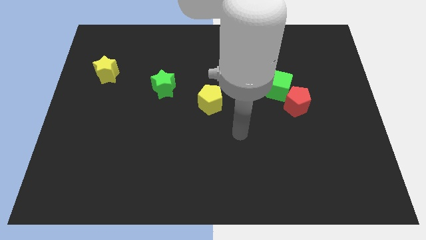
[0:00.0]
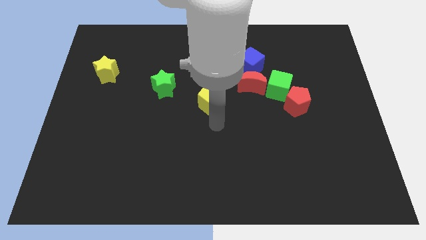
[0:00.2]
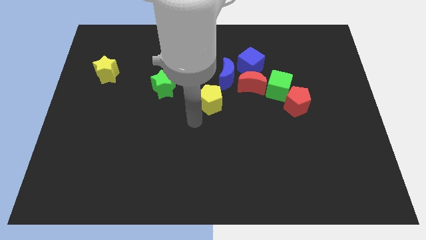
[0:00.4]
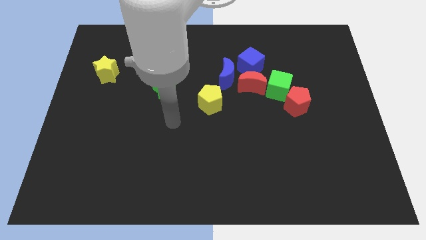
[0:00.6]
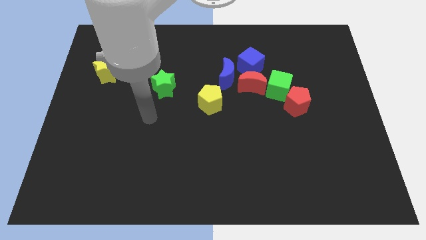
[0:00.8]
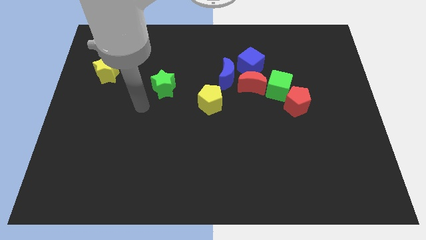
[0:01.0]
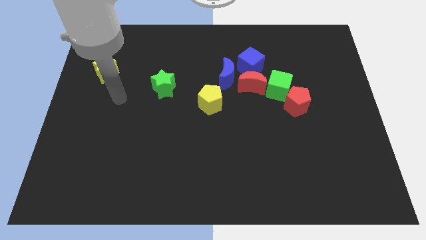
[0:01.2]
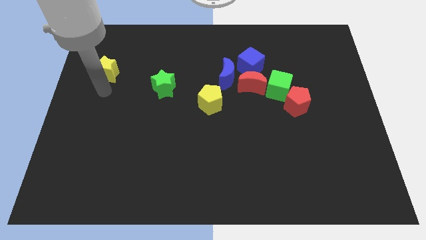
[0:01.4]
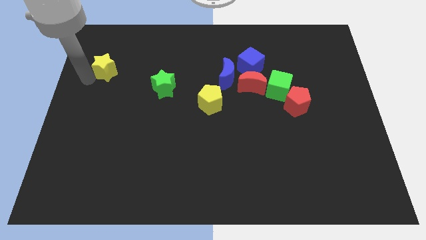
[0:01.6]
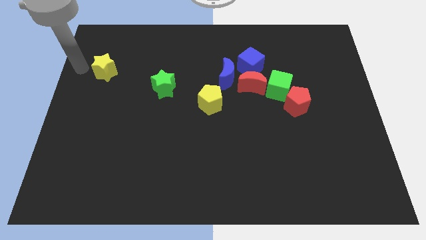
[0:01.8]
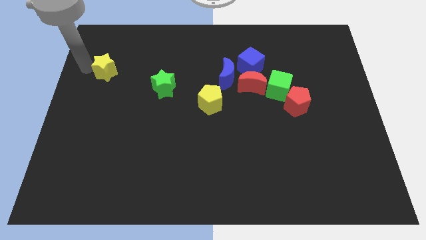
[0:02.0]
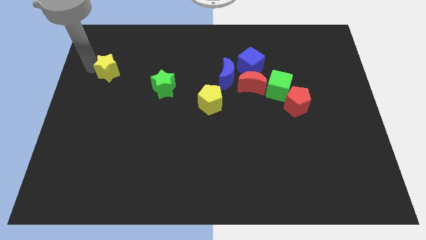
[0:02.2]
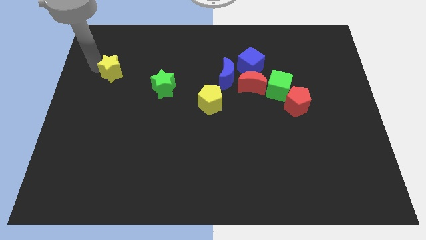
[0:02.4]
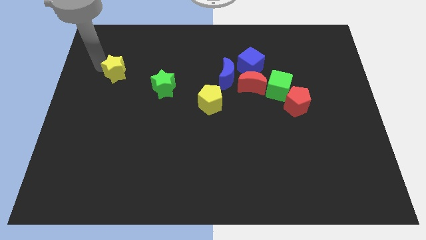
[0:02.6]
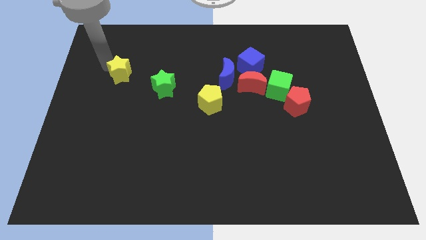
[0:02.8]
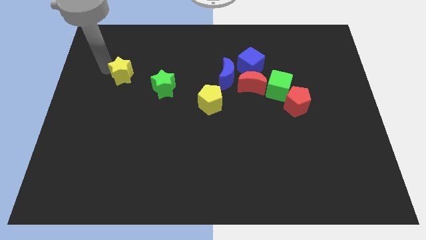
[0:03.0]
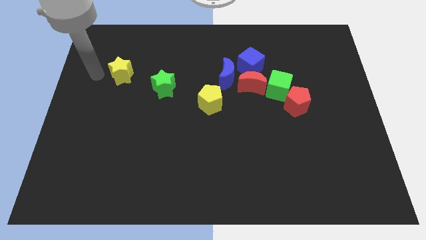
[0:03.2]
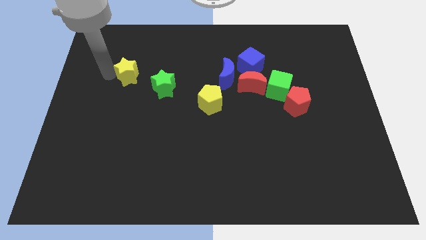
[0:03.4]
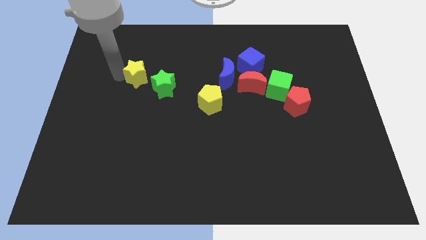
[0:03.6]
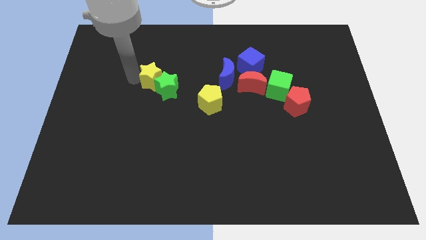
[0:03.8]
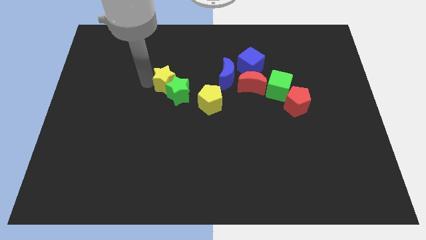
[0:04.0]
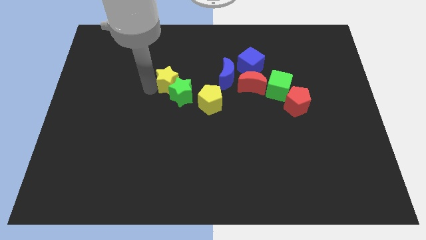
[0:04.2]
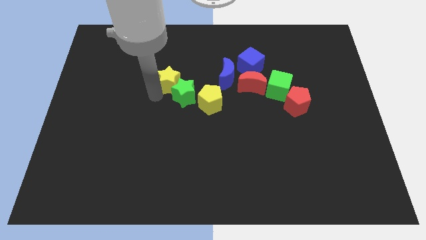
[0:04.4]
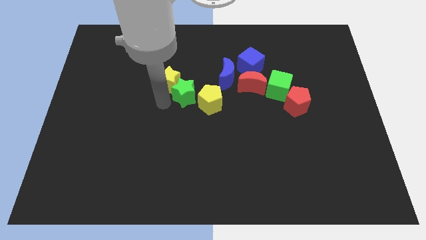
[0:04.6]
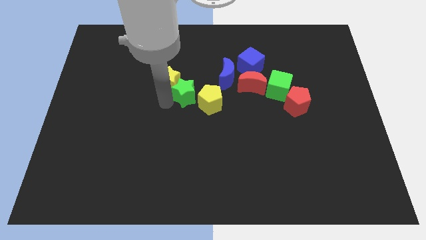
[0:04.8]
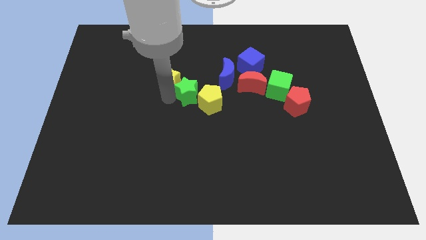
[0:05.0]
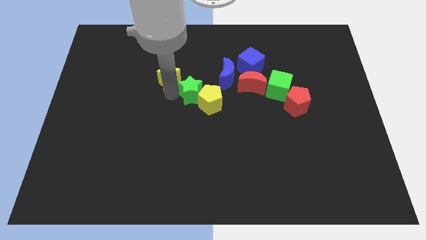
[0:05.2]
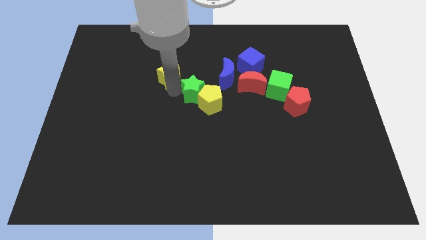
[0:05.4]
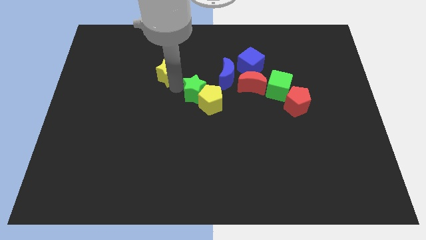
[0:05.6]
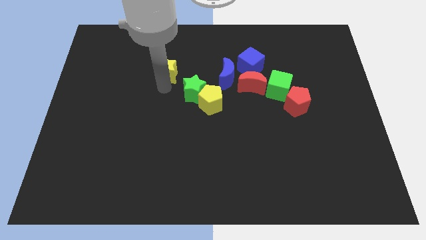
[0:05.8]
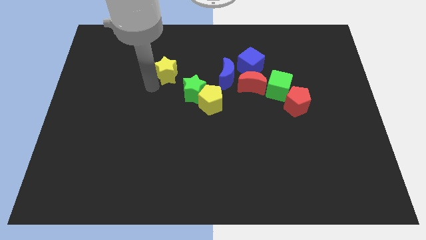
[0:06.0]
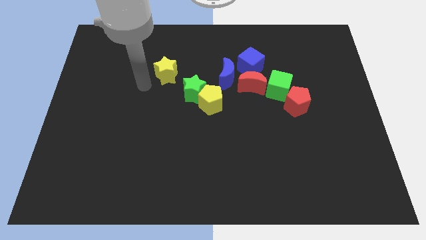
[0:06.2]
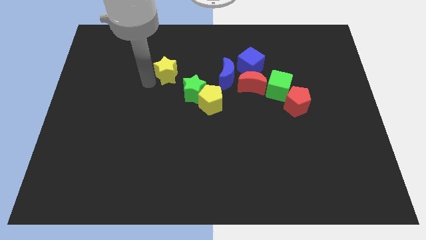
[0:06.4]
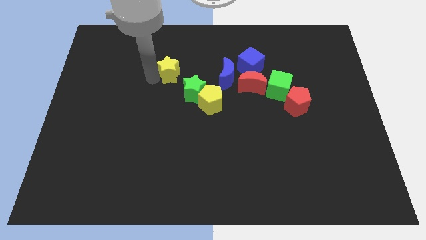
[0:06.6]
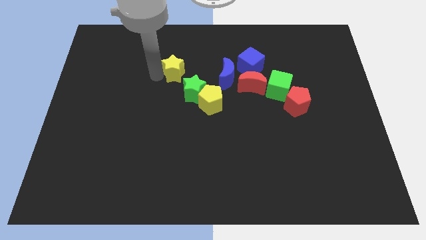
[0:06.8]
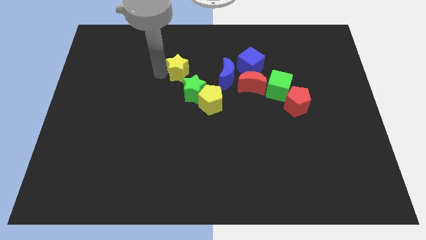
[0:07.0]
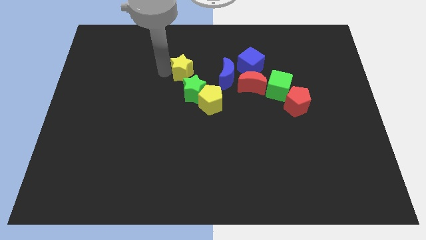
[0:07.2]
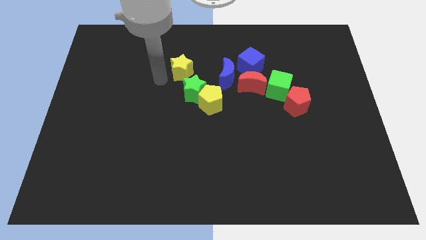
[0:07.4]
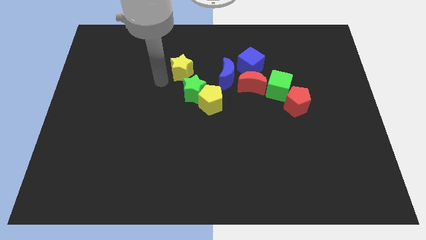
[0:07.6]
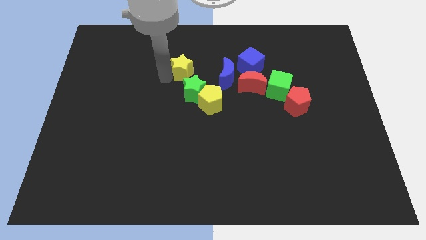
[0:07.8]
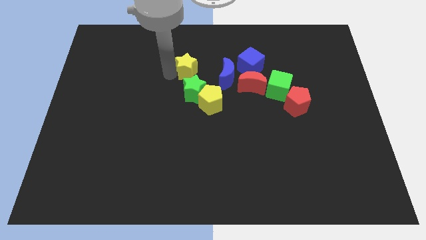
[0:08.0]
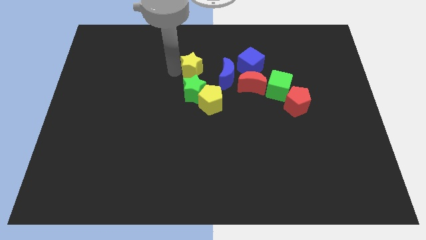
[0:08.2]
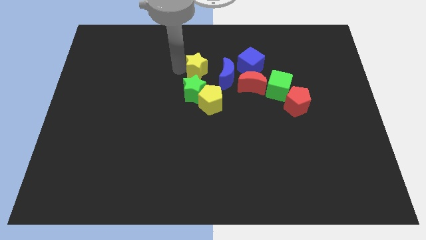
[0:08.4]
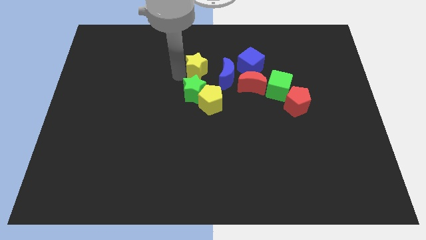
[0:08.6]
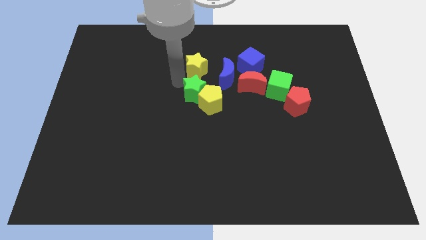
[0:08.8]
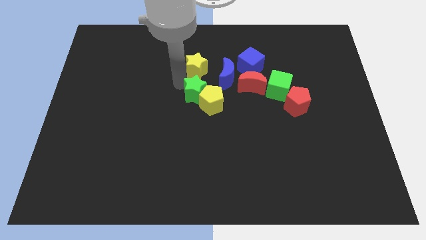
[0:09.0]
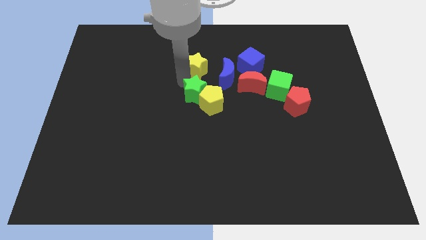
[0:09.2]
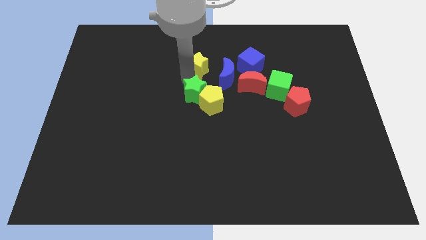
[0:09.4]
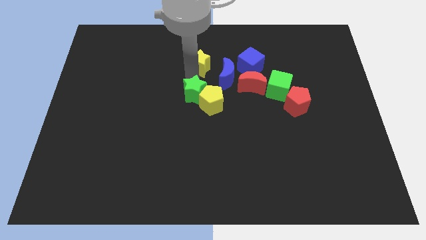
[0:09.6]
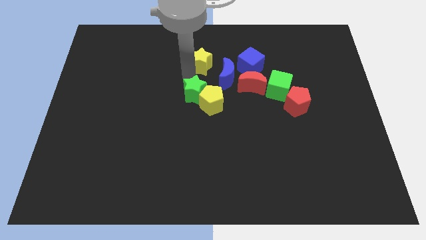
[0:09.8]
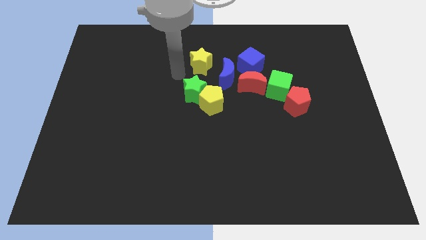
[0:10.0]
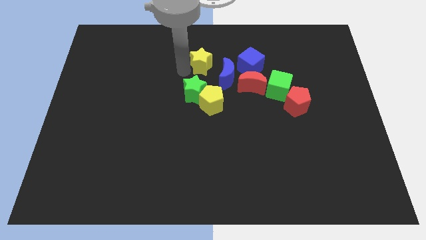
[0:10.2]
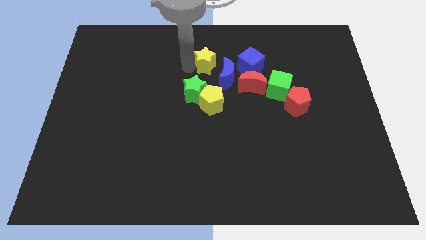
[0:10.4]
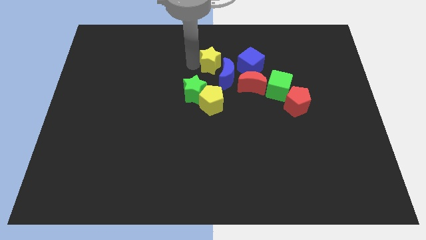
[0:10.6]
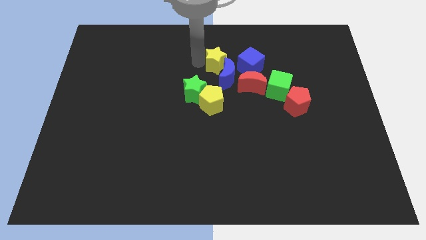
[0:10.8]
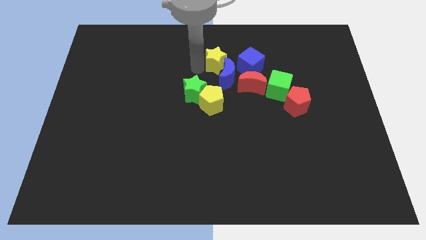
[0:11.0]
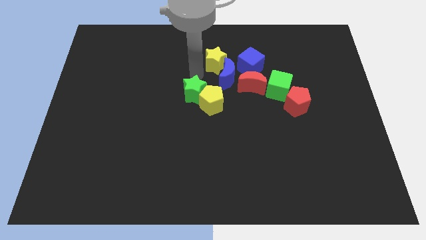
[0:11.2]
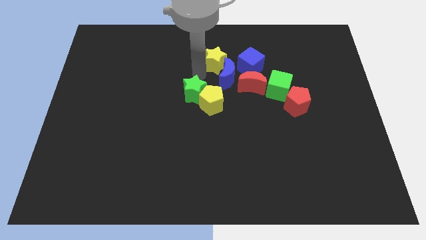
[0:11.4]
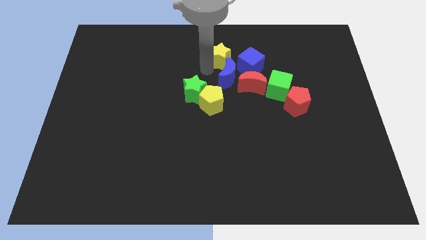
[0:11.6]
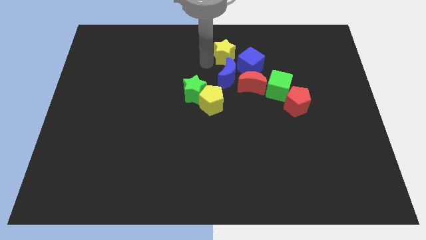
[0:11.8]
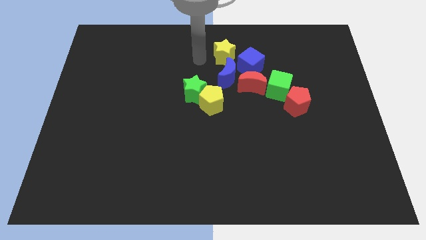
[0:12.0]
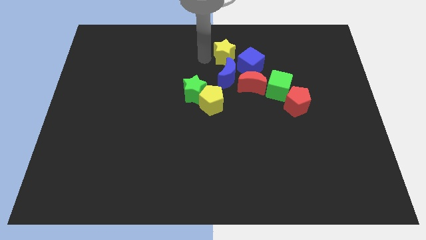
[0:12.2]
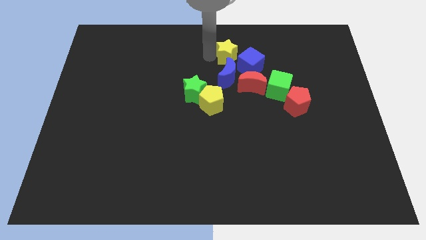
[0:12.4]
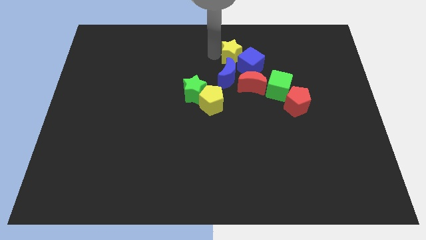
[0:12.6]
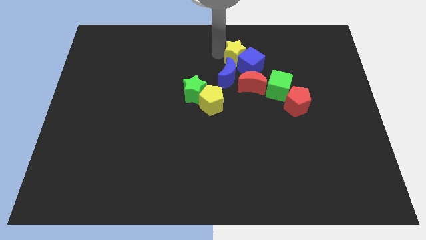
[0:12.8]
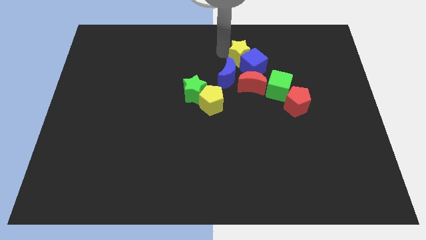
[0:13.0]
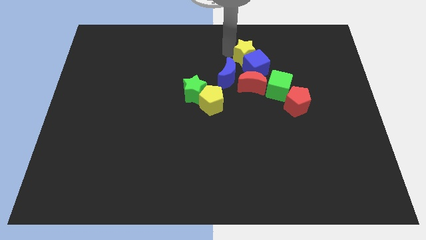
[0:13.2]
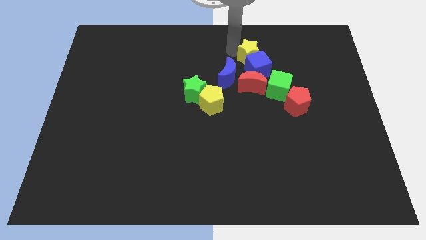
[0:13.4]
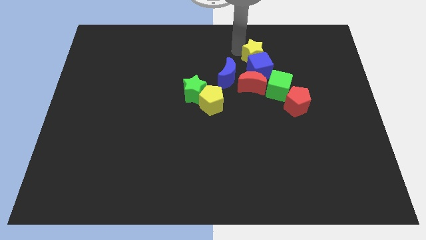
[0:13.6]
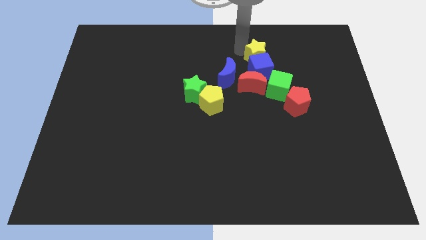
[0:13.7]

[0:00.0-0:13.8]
put the yellow star above the green cube
